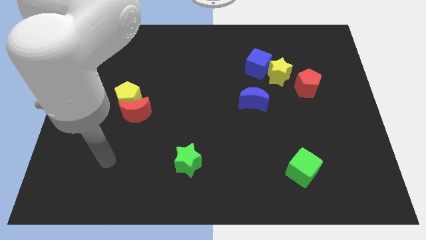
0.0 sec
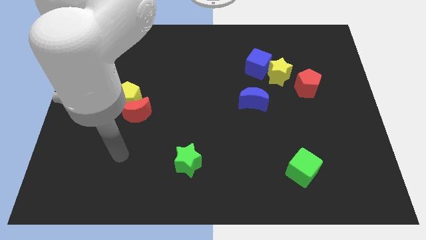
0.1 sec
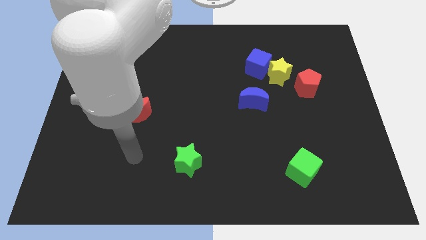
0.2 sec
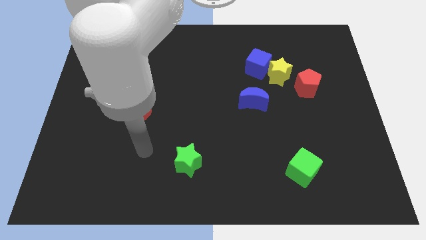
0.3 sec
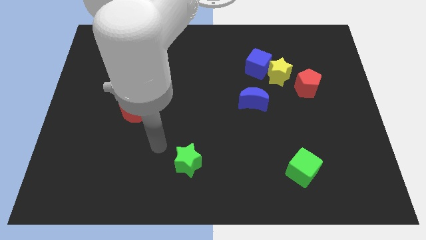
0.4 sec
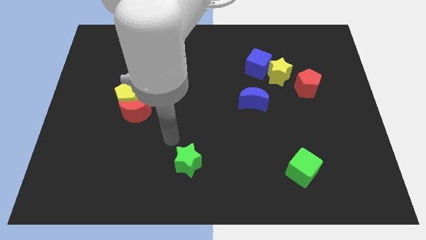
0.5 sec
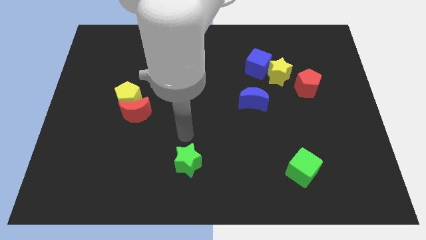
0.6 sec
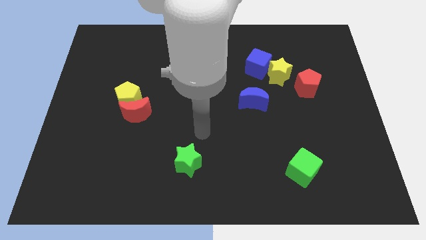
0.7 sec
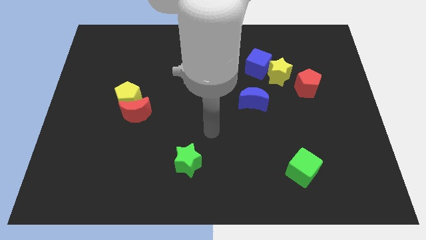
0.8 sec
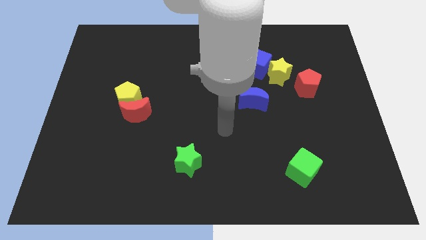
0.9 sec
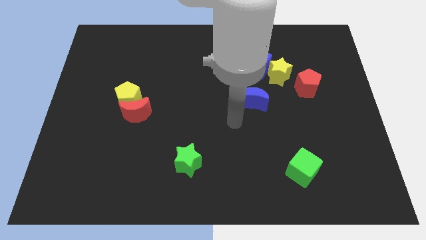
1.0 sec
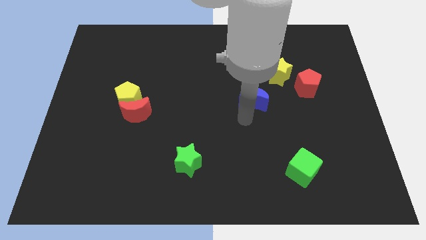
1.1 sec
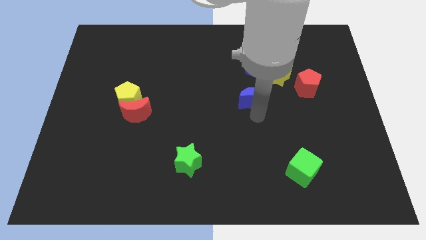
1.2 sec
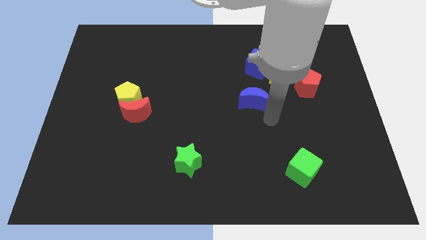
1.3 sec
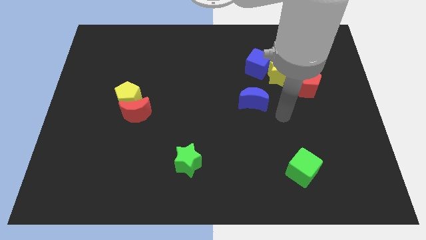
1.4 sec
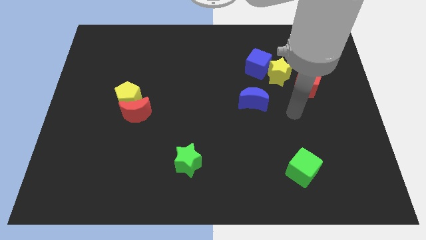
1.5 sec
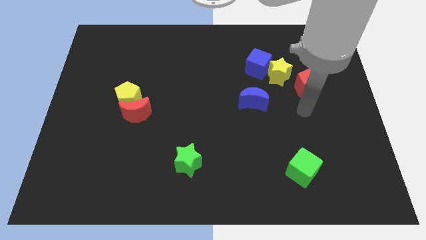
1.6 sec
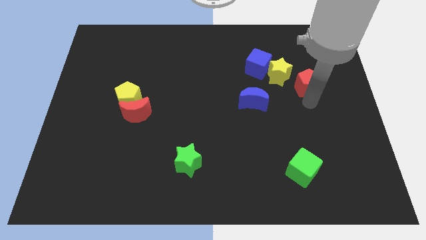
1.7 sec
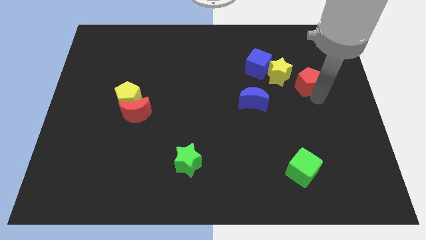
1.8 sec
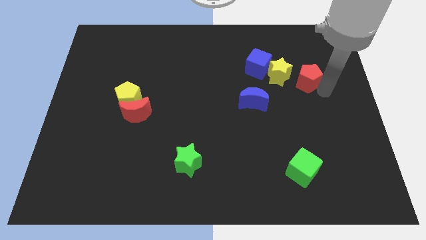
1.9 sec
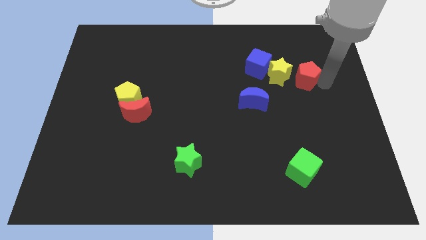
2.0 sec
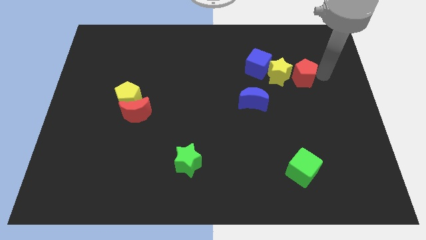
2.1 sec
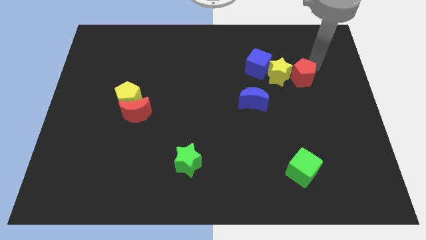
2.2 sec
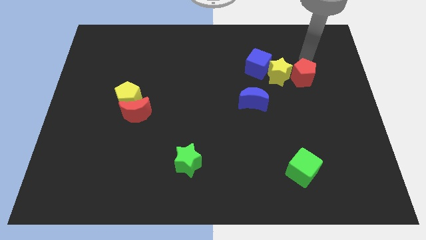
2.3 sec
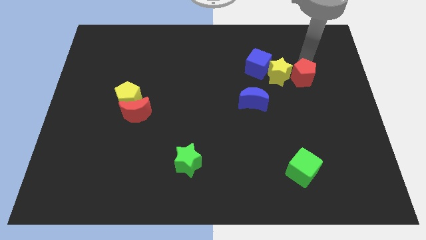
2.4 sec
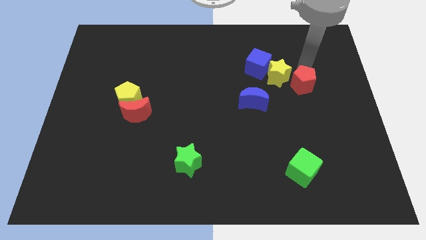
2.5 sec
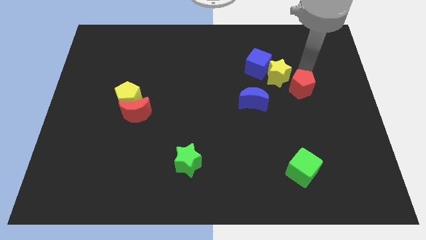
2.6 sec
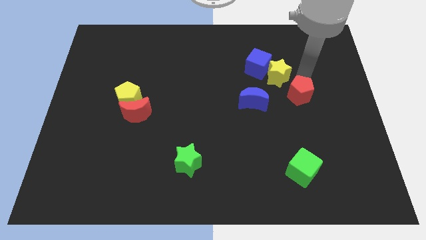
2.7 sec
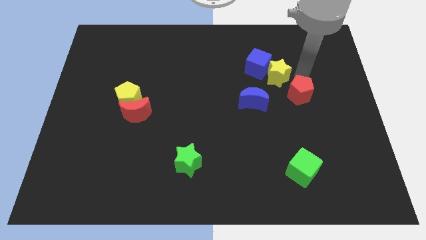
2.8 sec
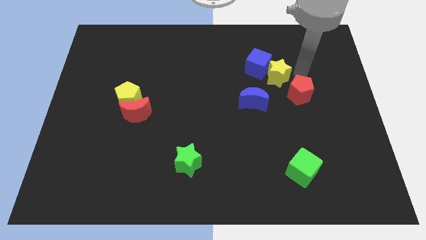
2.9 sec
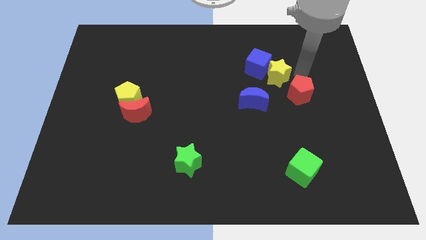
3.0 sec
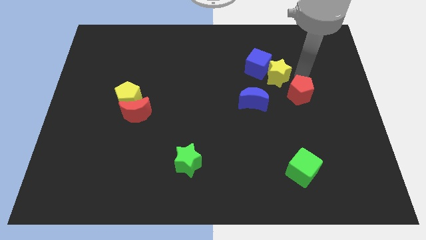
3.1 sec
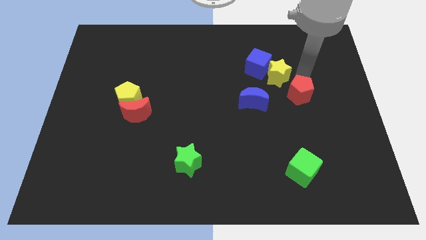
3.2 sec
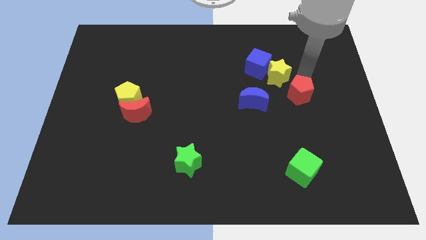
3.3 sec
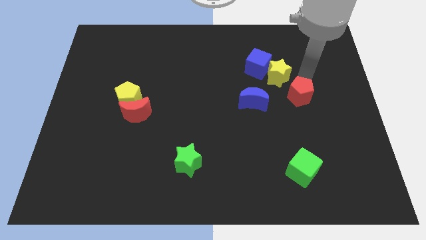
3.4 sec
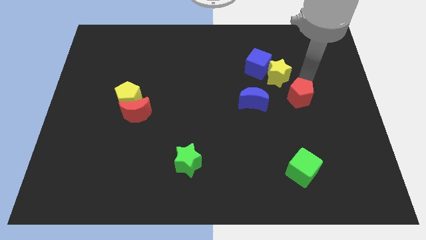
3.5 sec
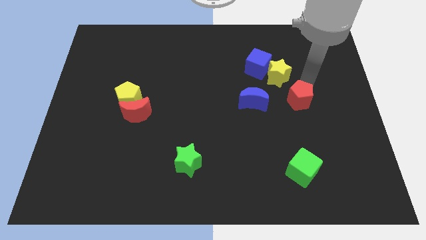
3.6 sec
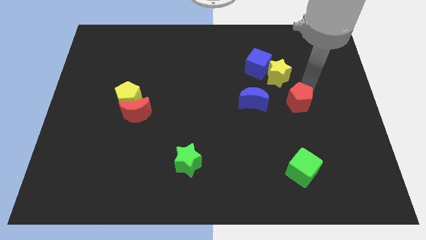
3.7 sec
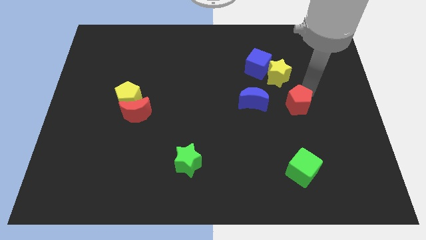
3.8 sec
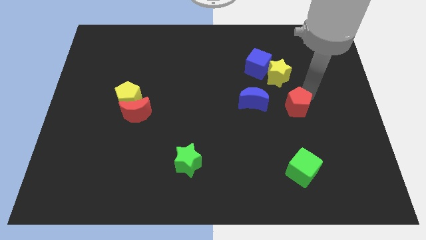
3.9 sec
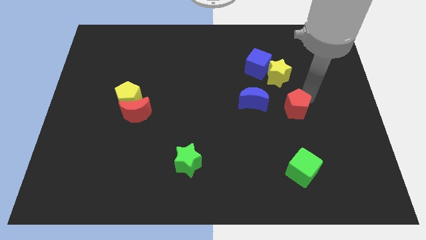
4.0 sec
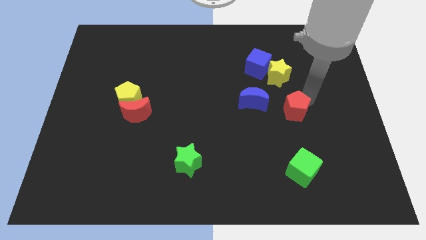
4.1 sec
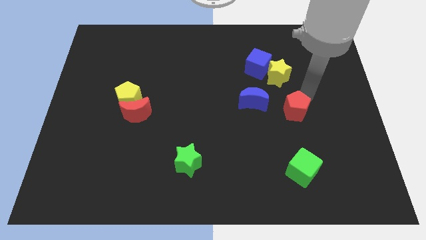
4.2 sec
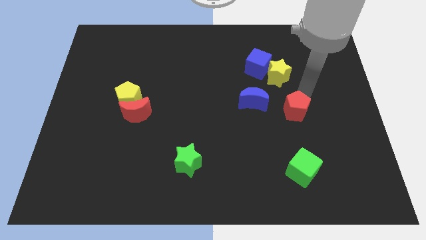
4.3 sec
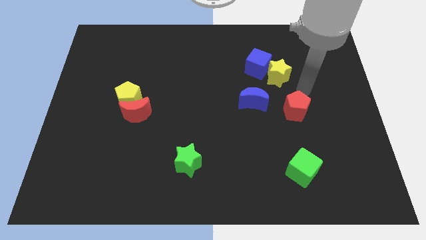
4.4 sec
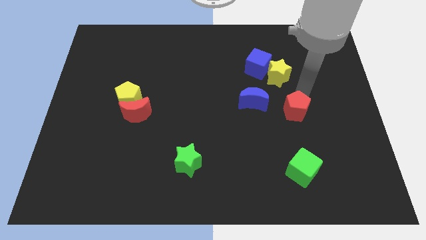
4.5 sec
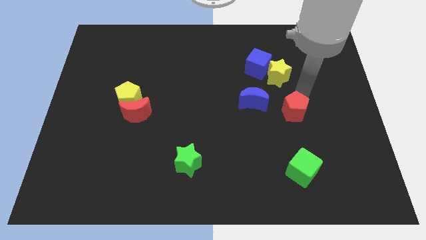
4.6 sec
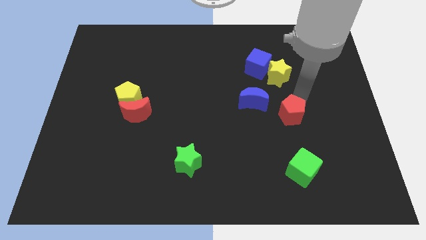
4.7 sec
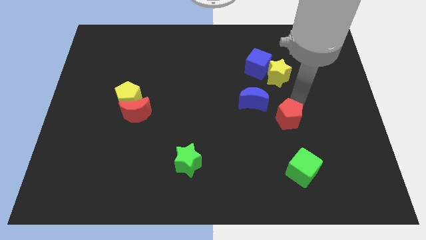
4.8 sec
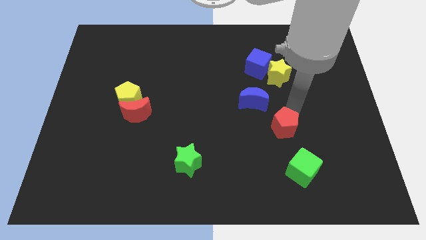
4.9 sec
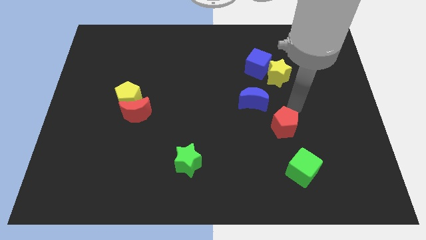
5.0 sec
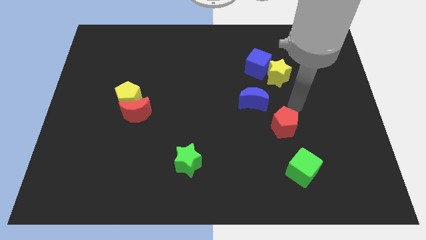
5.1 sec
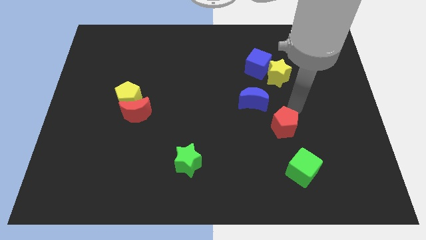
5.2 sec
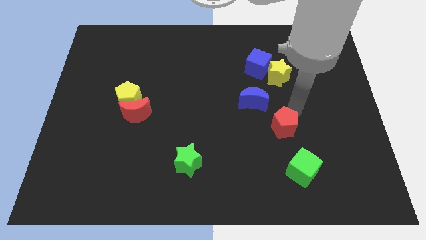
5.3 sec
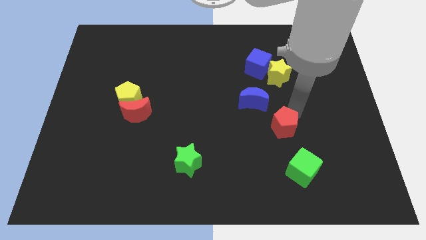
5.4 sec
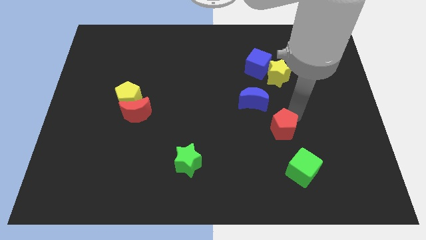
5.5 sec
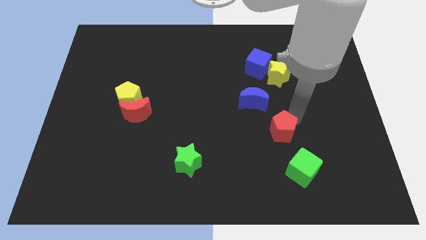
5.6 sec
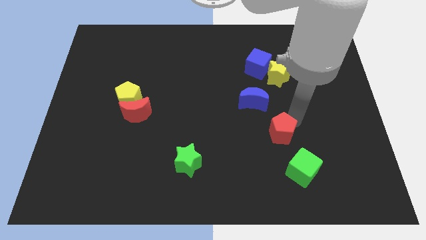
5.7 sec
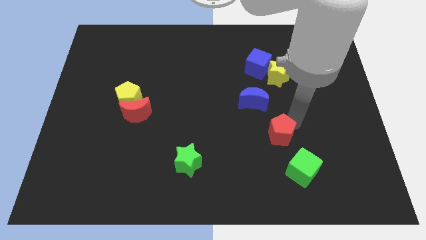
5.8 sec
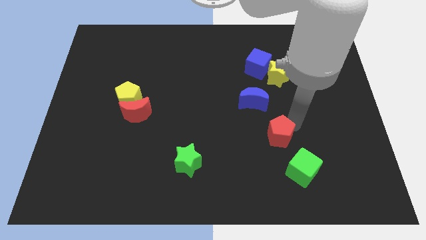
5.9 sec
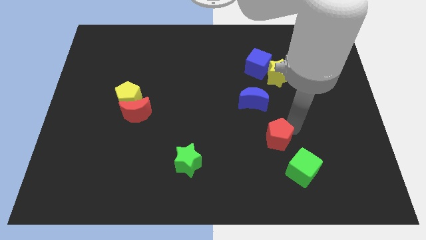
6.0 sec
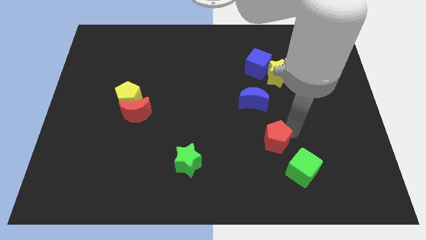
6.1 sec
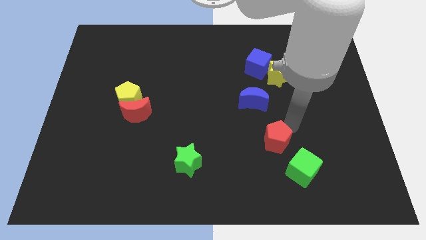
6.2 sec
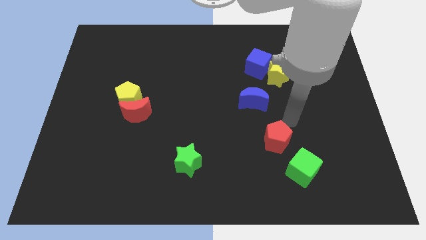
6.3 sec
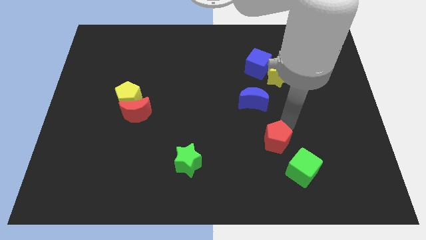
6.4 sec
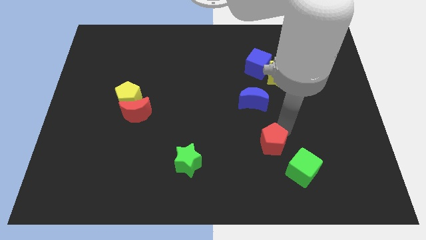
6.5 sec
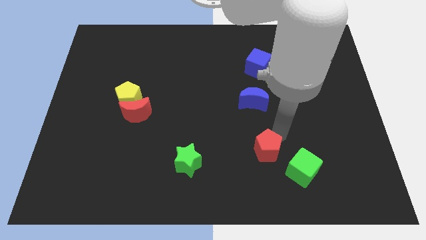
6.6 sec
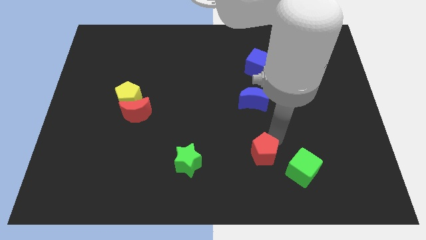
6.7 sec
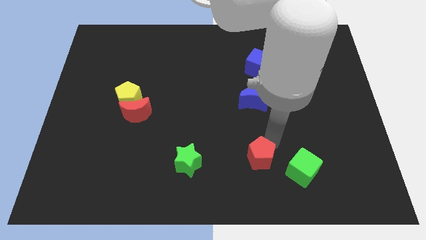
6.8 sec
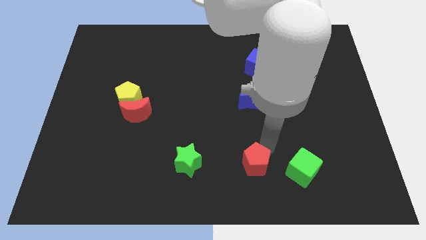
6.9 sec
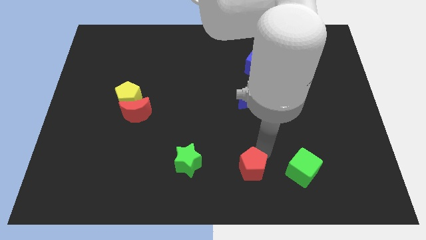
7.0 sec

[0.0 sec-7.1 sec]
put the red pentagon to the bottom side
